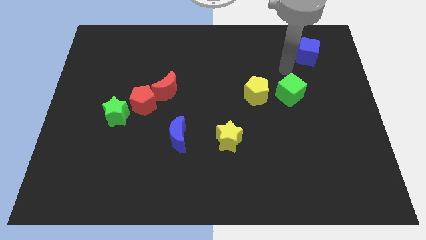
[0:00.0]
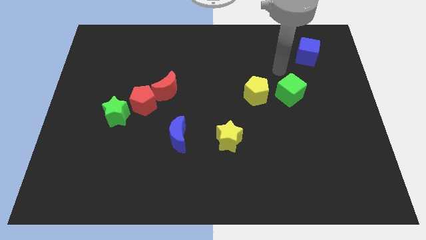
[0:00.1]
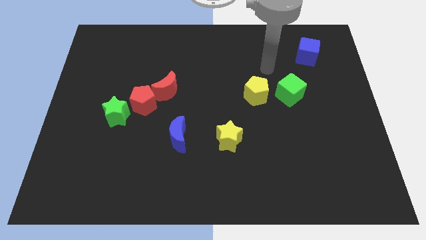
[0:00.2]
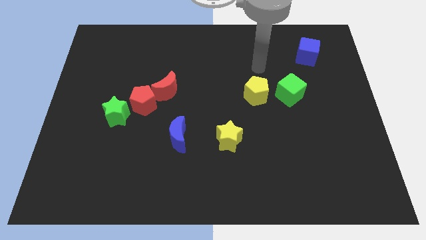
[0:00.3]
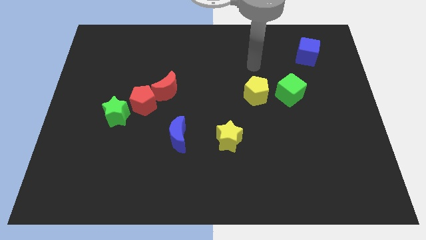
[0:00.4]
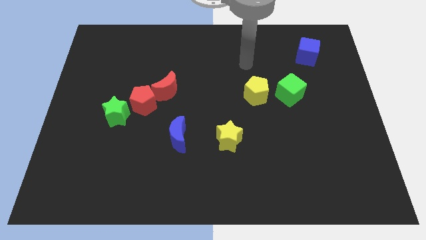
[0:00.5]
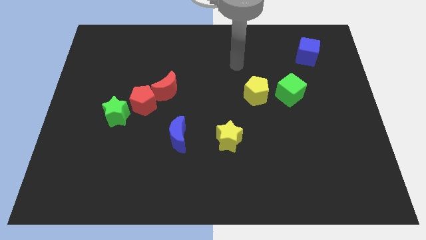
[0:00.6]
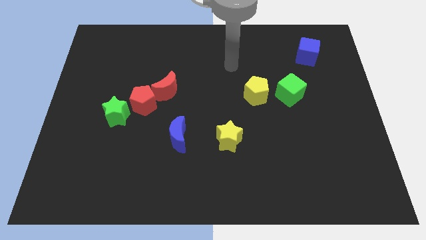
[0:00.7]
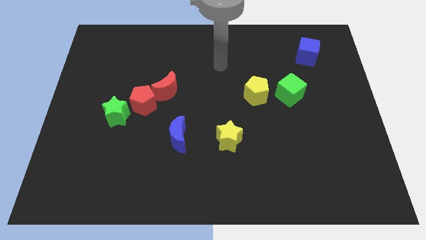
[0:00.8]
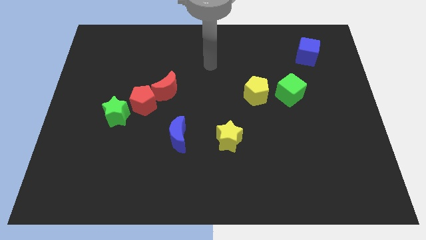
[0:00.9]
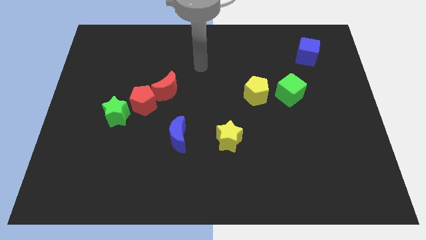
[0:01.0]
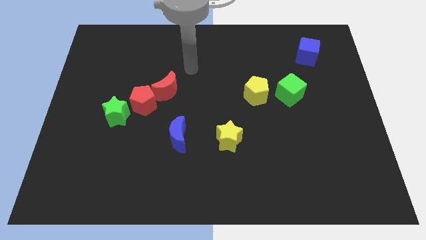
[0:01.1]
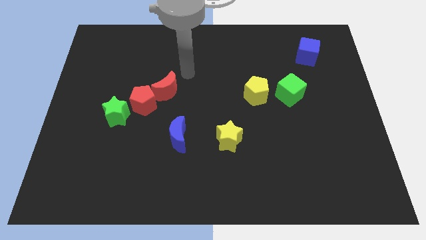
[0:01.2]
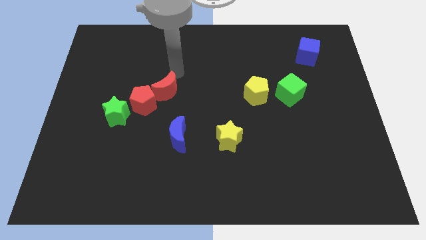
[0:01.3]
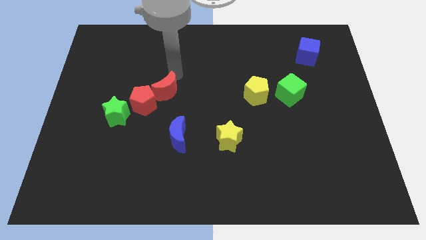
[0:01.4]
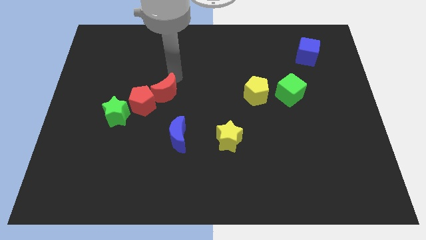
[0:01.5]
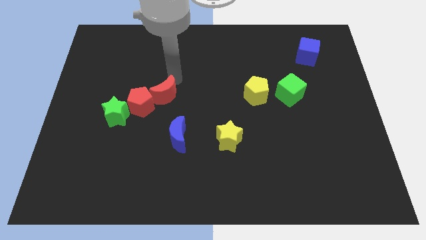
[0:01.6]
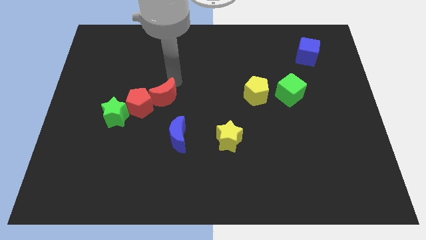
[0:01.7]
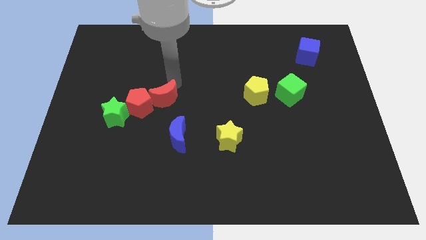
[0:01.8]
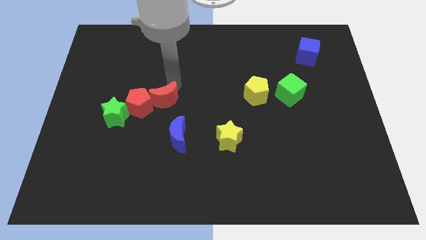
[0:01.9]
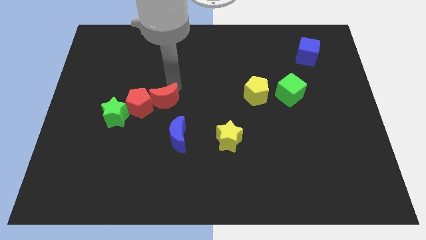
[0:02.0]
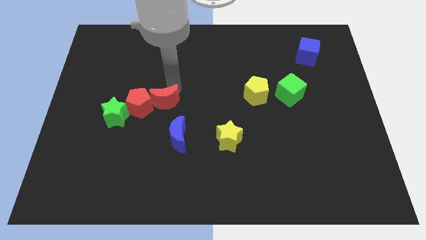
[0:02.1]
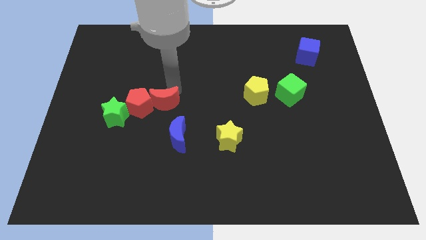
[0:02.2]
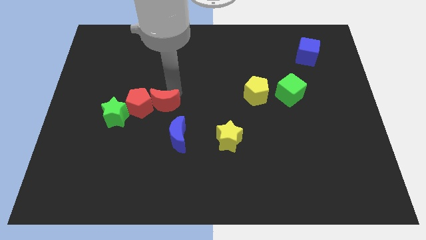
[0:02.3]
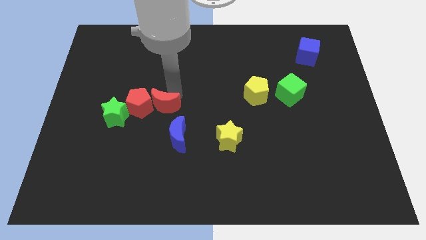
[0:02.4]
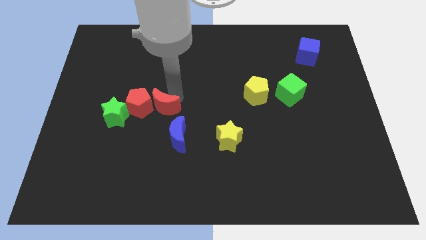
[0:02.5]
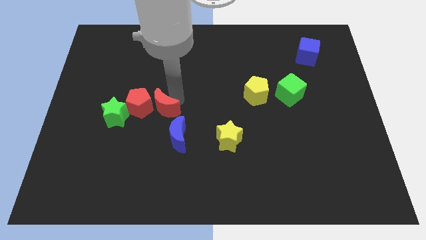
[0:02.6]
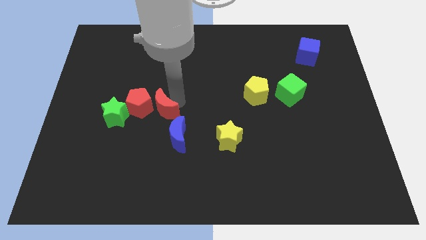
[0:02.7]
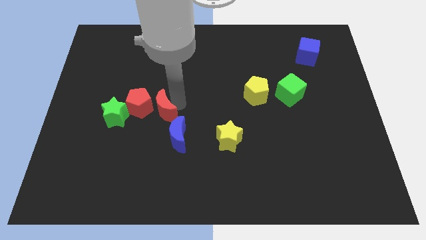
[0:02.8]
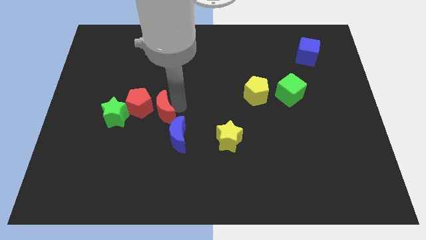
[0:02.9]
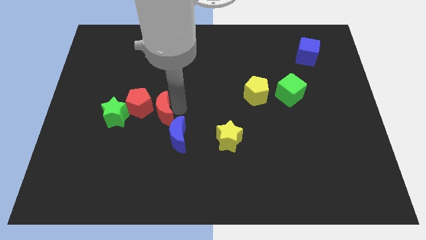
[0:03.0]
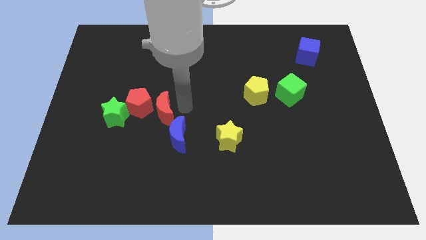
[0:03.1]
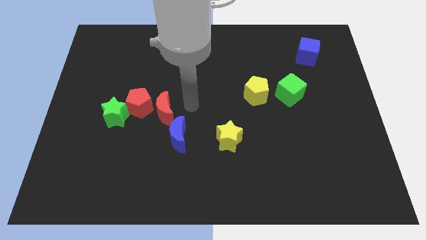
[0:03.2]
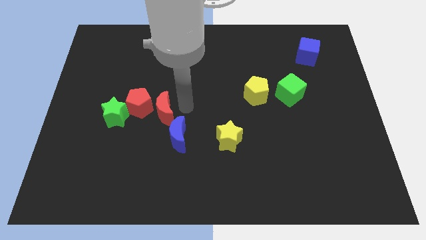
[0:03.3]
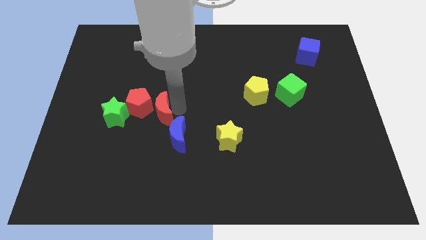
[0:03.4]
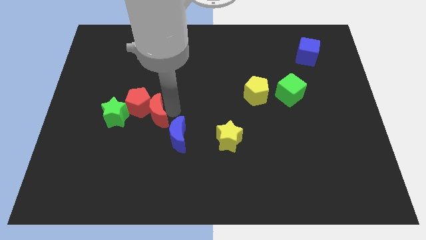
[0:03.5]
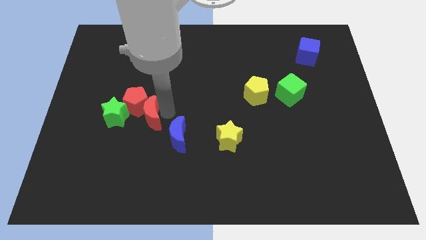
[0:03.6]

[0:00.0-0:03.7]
slightly move the red moon downwards and then left

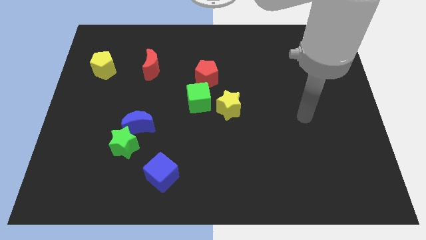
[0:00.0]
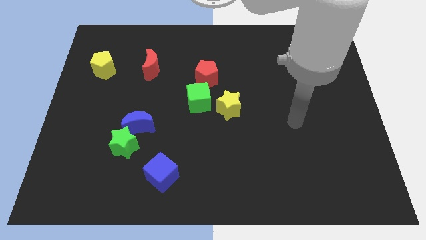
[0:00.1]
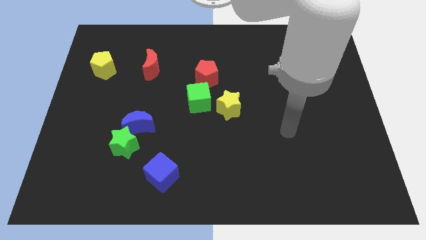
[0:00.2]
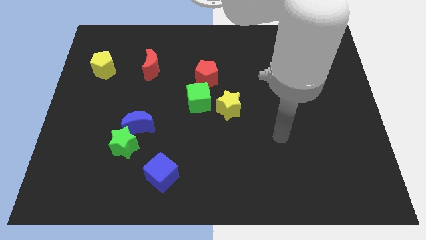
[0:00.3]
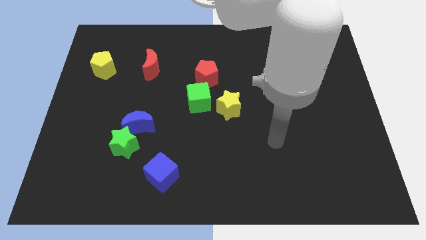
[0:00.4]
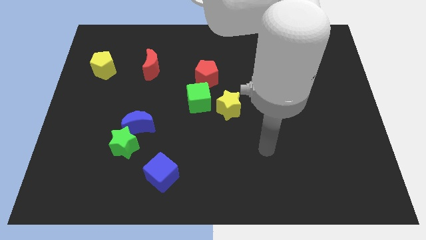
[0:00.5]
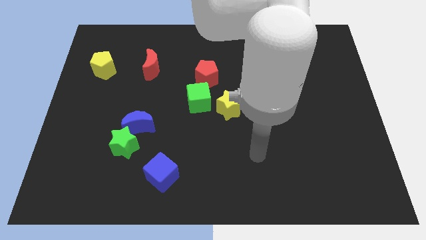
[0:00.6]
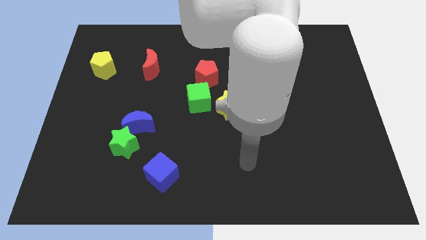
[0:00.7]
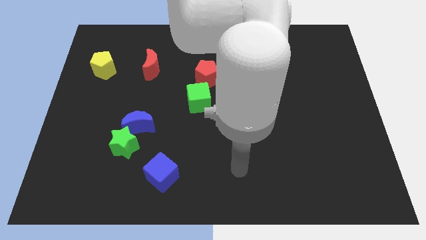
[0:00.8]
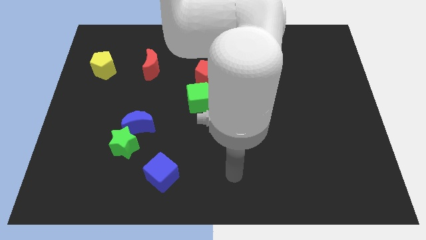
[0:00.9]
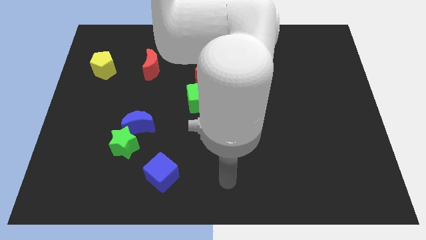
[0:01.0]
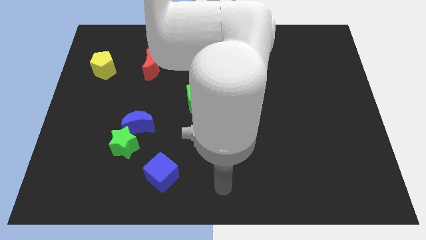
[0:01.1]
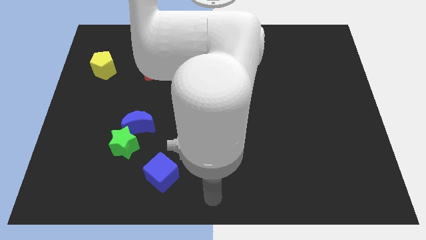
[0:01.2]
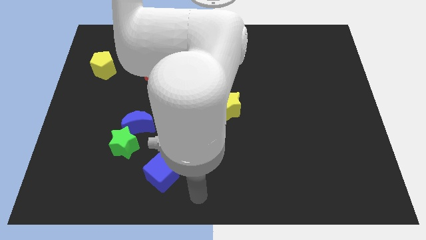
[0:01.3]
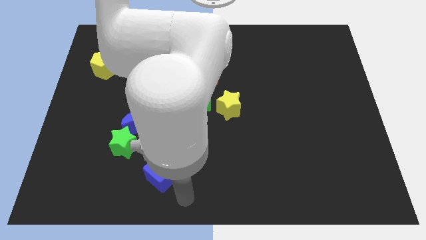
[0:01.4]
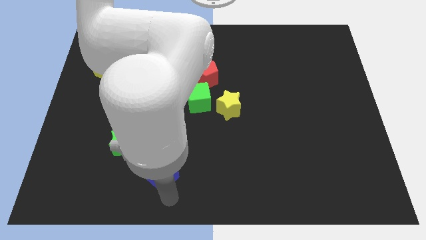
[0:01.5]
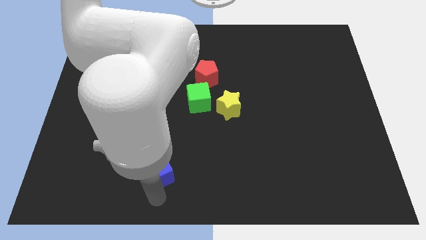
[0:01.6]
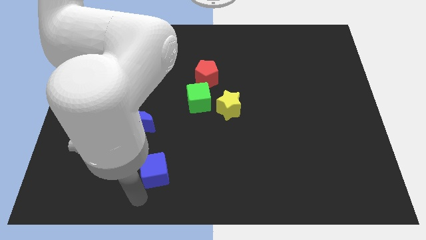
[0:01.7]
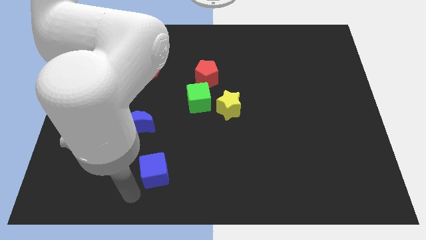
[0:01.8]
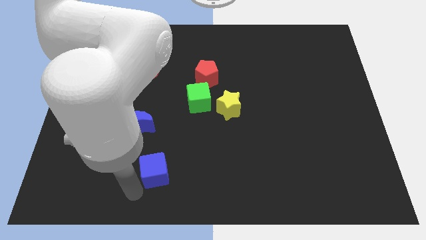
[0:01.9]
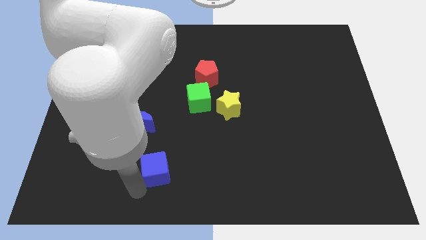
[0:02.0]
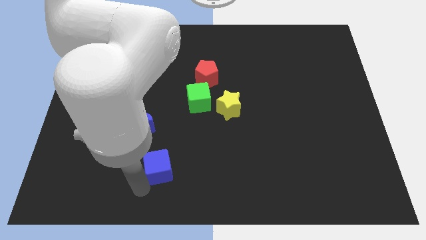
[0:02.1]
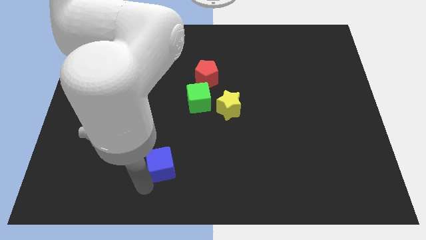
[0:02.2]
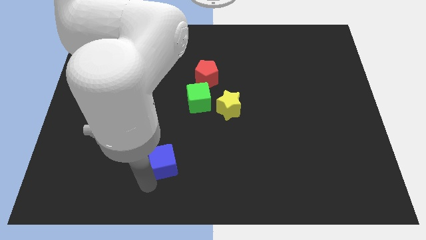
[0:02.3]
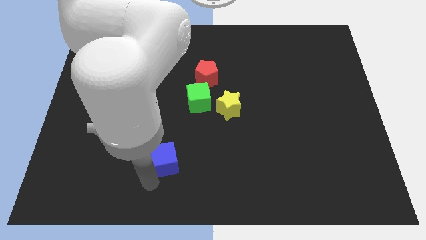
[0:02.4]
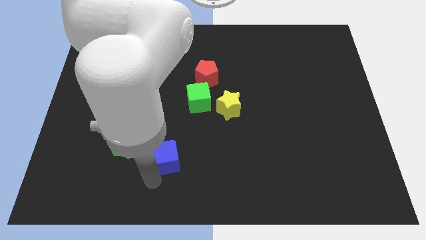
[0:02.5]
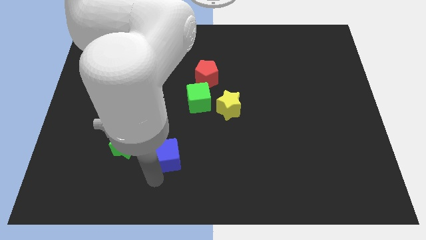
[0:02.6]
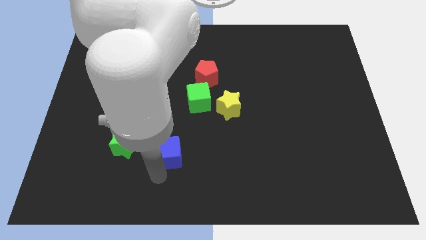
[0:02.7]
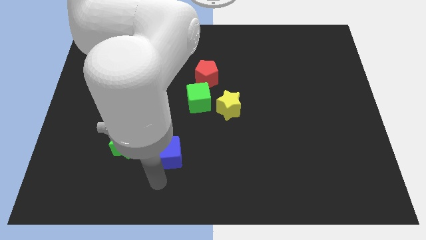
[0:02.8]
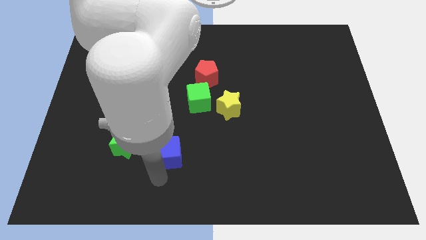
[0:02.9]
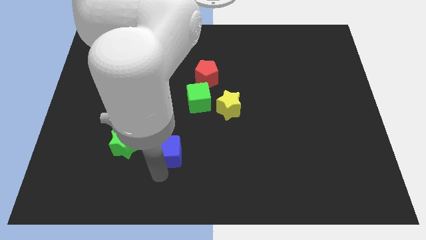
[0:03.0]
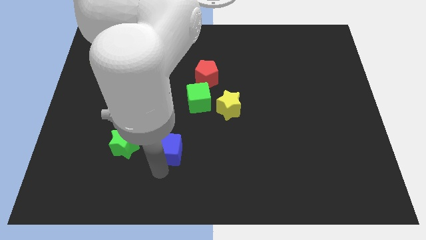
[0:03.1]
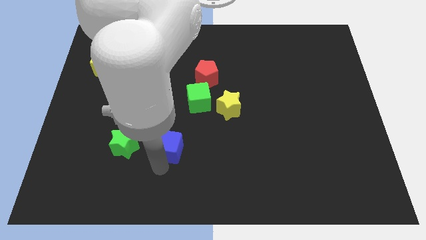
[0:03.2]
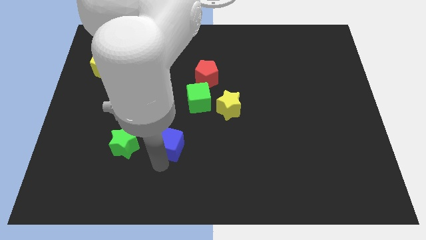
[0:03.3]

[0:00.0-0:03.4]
slightly slide the blue cube upwards

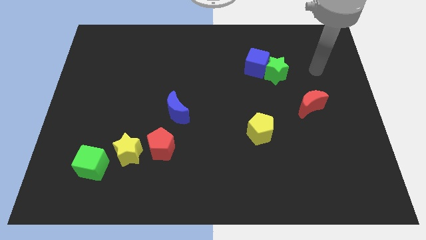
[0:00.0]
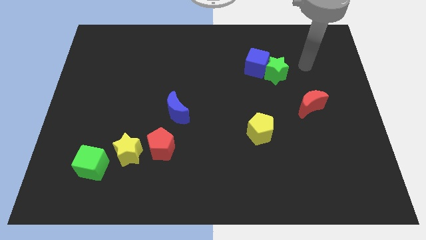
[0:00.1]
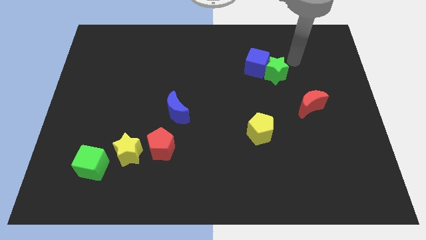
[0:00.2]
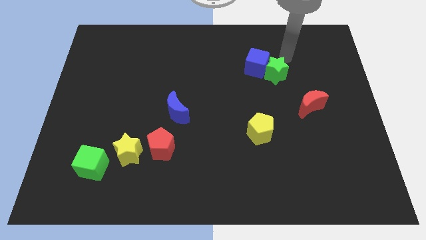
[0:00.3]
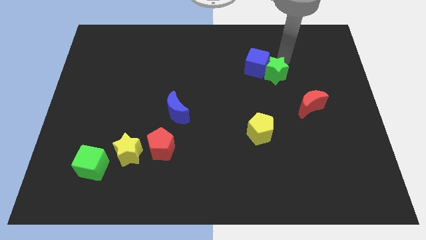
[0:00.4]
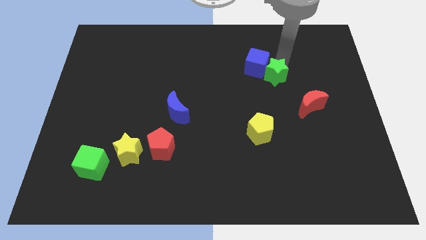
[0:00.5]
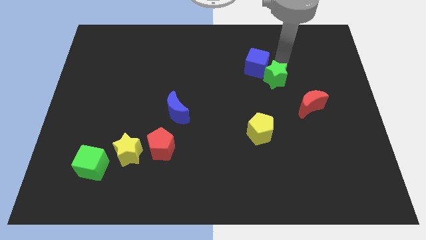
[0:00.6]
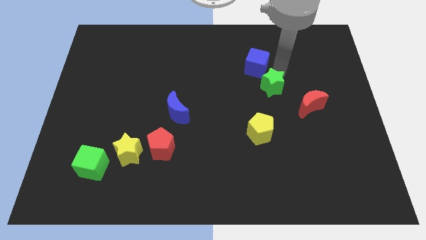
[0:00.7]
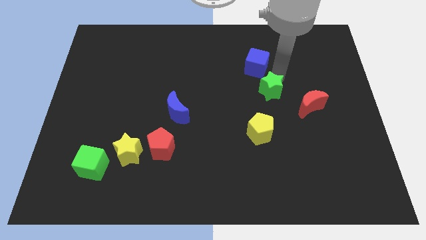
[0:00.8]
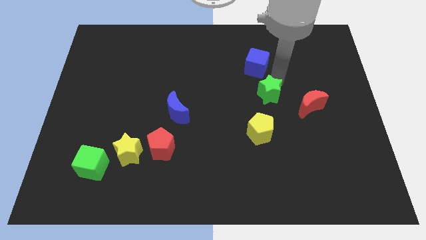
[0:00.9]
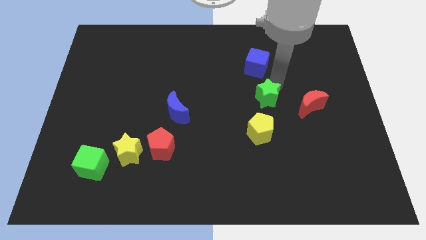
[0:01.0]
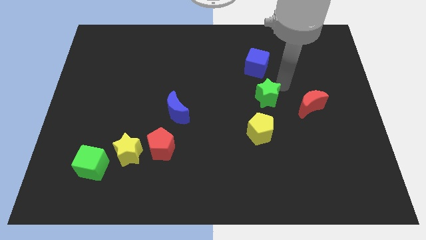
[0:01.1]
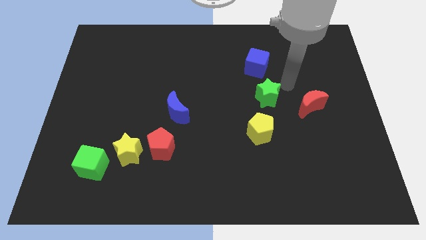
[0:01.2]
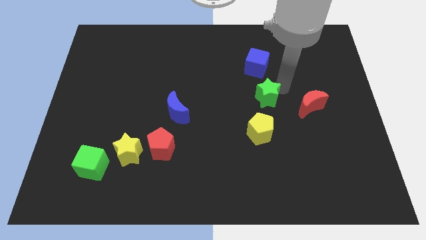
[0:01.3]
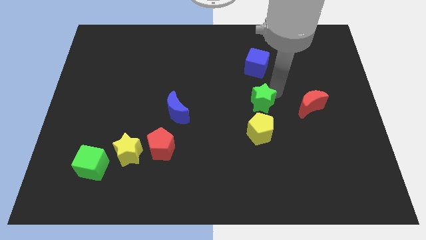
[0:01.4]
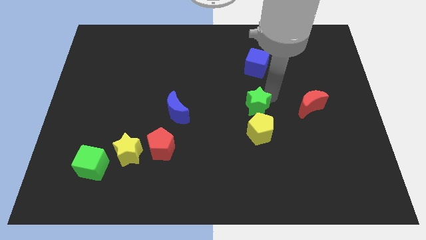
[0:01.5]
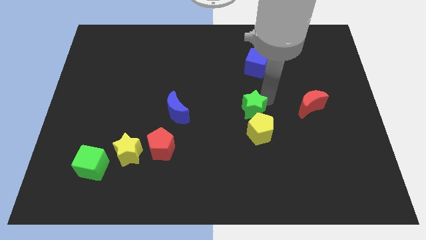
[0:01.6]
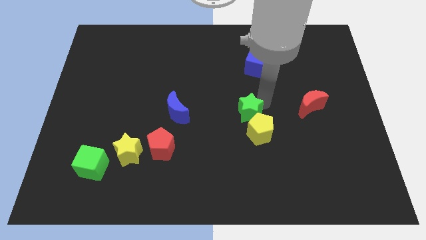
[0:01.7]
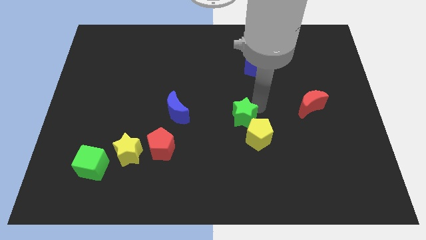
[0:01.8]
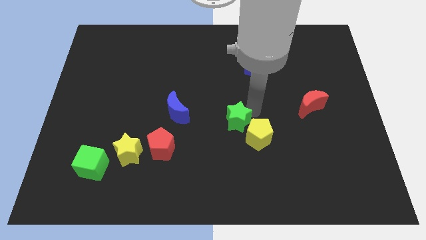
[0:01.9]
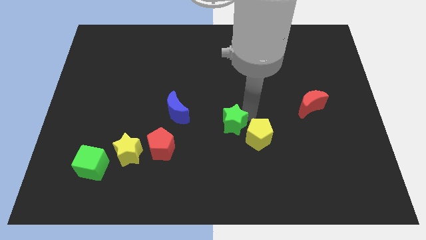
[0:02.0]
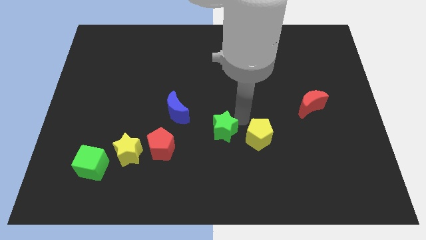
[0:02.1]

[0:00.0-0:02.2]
push the green star downwards and left diagonally
